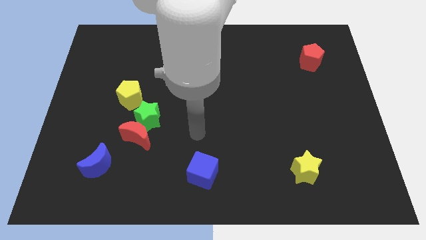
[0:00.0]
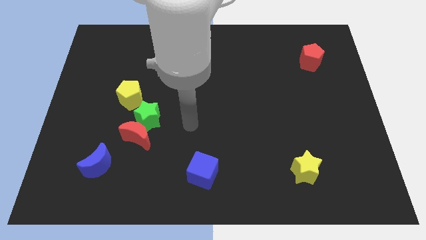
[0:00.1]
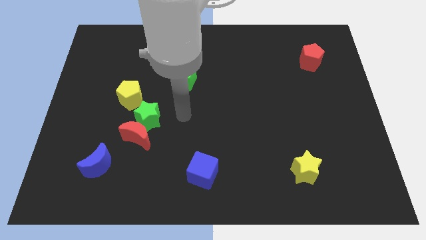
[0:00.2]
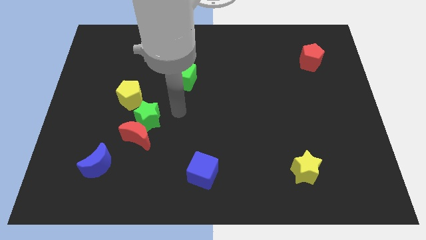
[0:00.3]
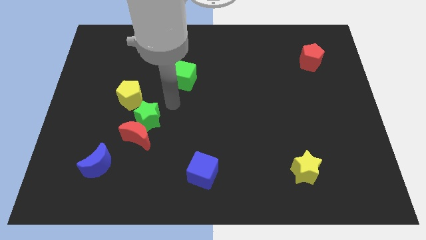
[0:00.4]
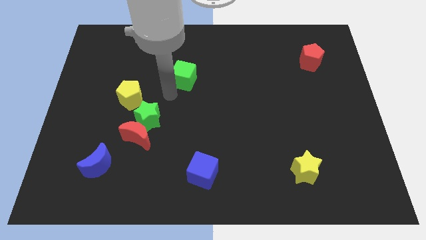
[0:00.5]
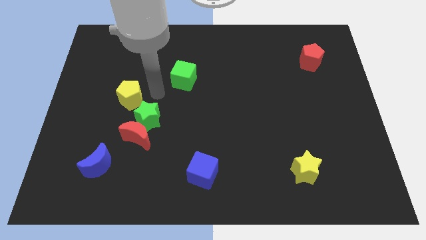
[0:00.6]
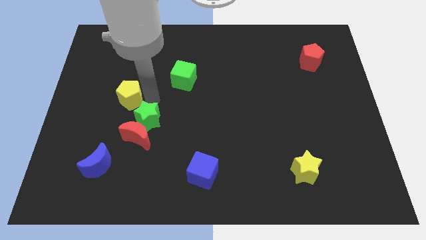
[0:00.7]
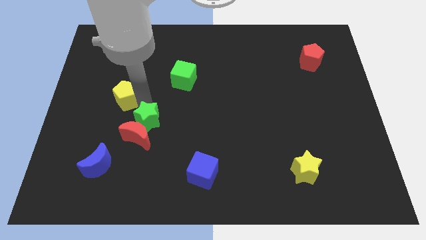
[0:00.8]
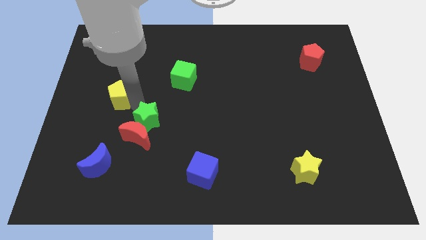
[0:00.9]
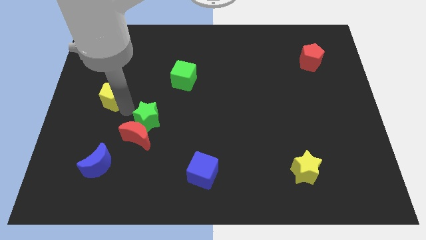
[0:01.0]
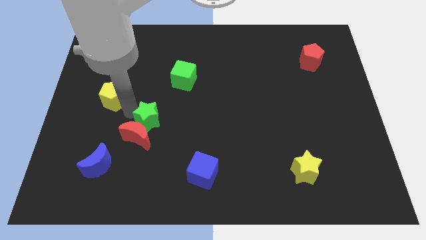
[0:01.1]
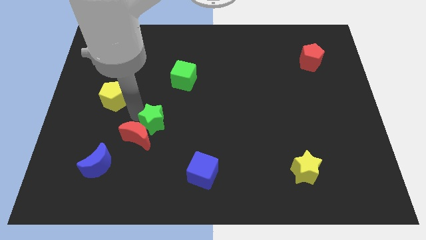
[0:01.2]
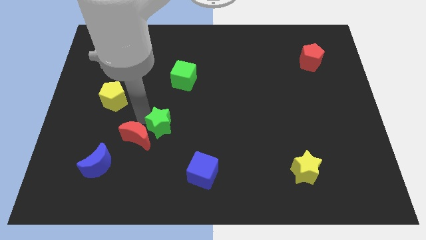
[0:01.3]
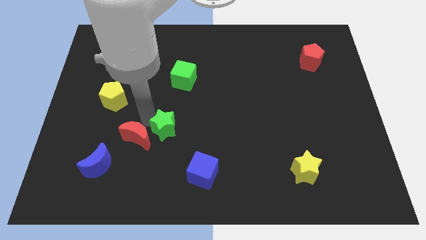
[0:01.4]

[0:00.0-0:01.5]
move the green star away from the red moon and yellow pentagon

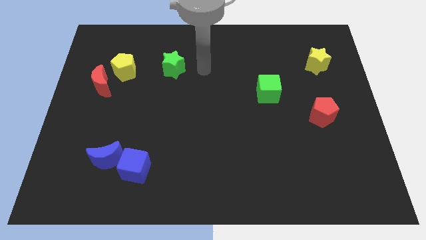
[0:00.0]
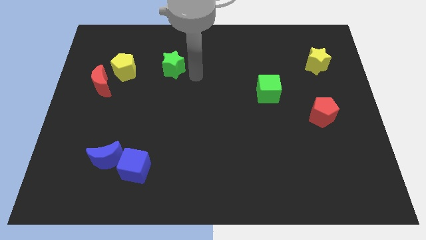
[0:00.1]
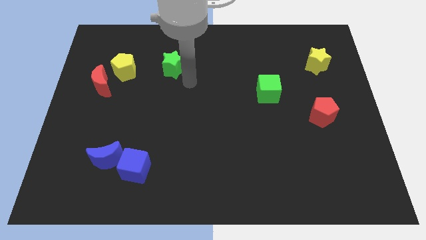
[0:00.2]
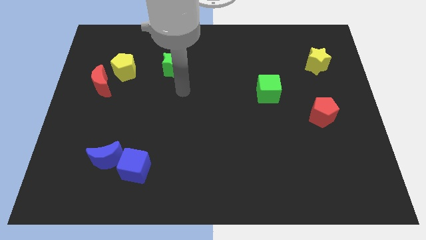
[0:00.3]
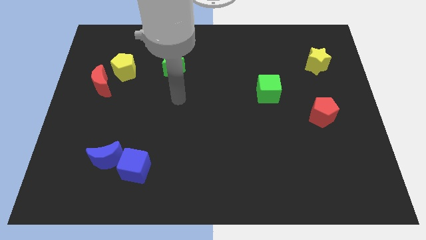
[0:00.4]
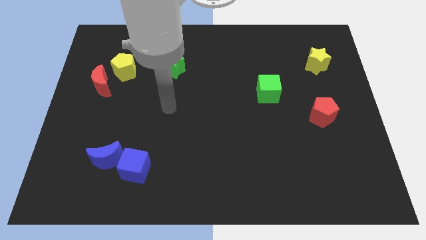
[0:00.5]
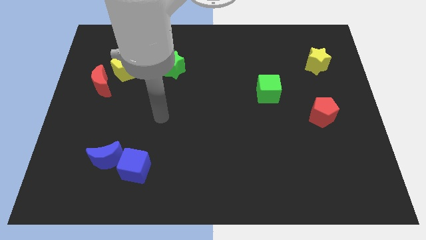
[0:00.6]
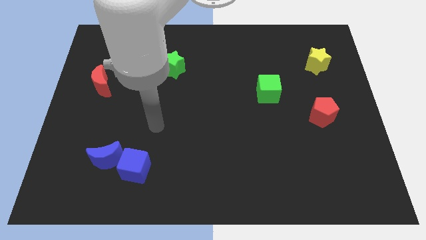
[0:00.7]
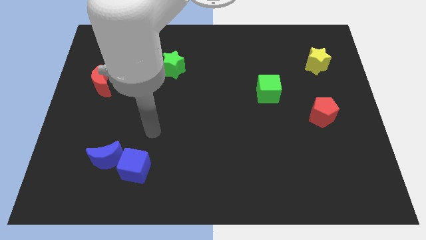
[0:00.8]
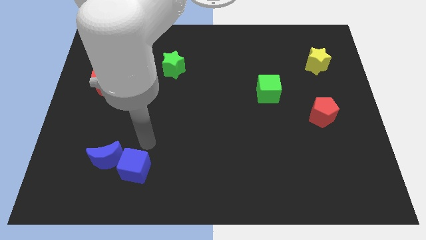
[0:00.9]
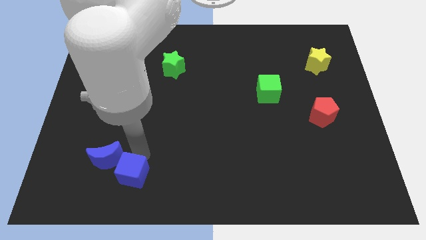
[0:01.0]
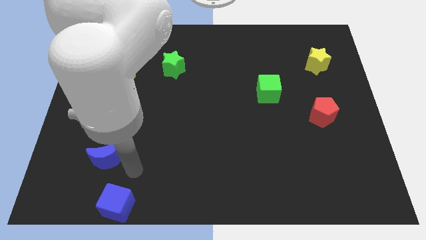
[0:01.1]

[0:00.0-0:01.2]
move the blue moon away from the blue cube

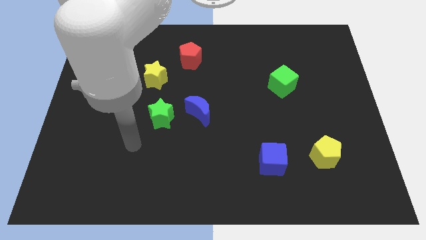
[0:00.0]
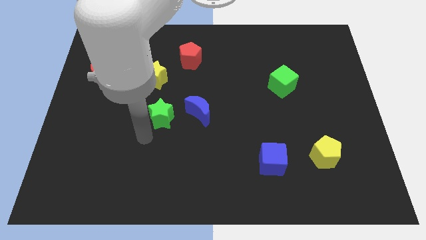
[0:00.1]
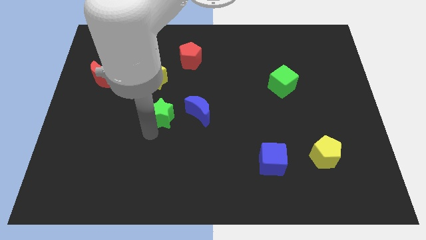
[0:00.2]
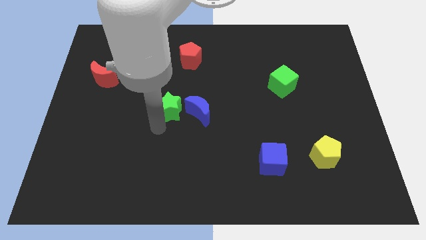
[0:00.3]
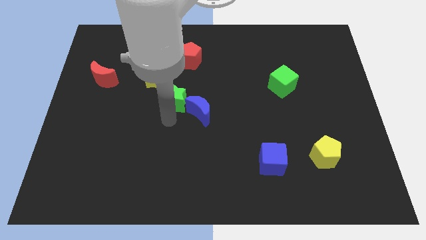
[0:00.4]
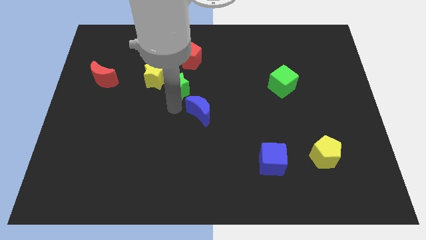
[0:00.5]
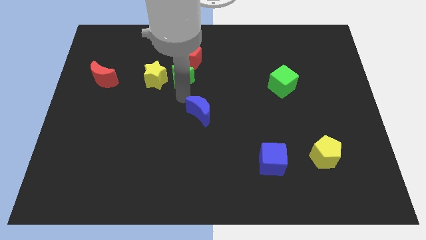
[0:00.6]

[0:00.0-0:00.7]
separate the blue moon from the green star

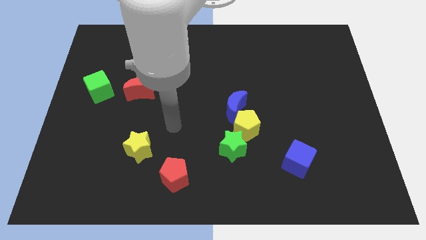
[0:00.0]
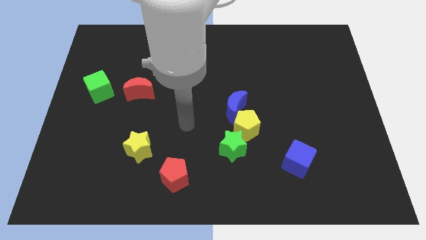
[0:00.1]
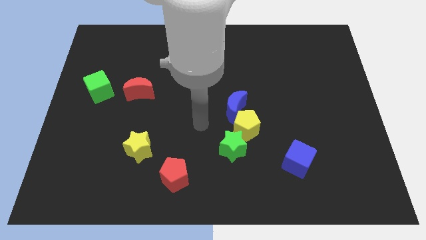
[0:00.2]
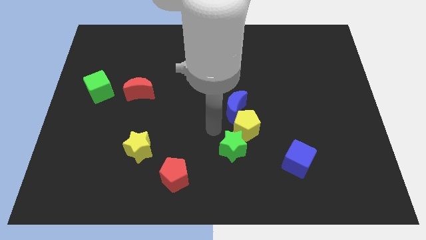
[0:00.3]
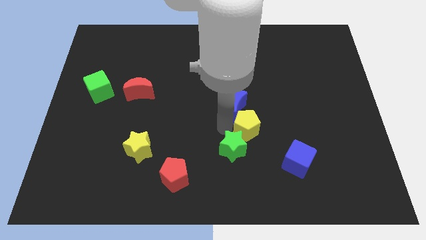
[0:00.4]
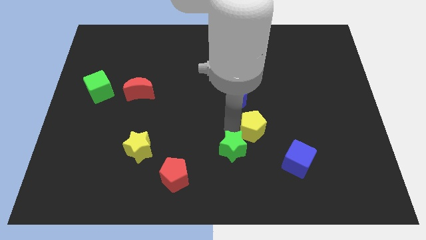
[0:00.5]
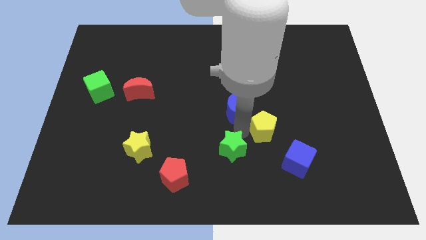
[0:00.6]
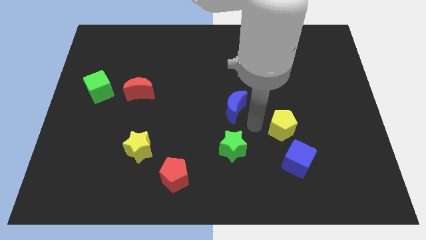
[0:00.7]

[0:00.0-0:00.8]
pull the blue moon apart from the yellow pentagon

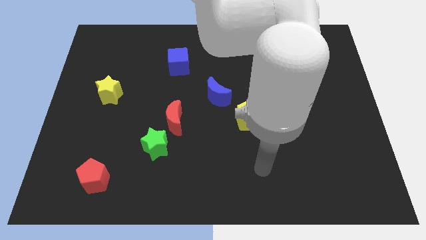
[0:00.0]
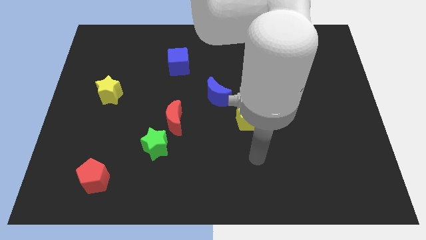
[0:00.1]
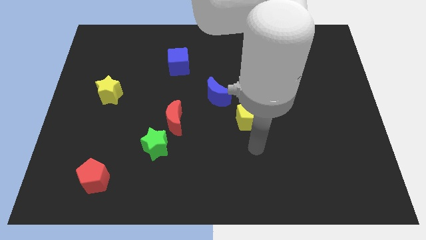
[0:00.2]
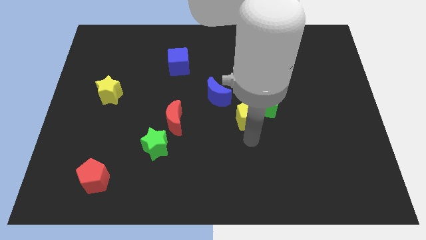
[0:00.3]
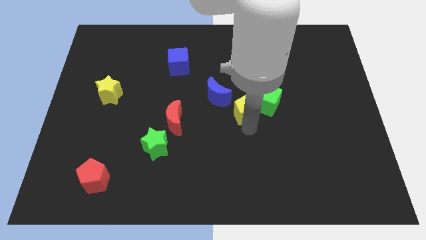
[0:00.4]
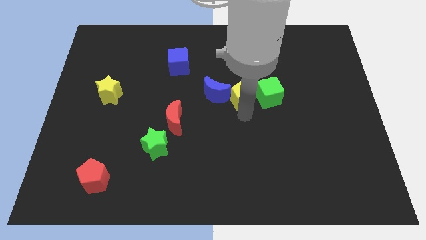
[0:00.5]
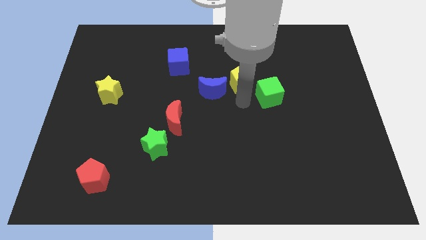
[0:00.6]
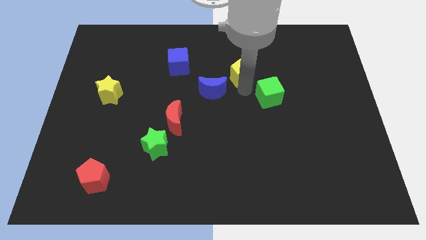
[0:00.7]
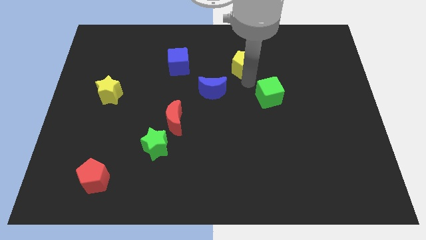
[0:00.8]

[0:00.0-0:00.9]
move the green cube away from the yellow pentagon

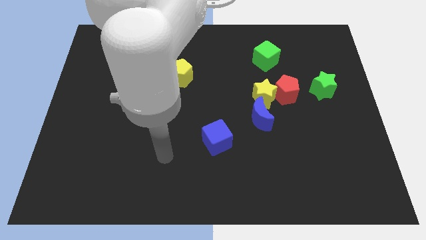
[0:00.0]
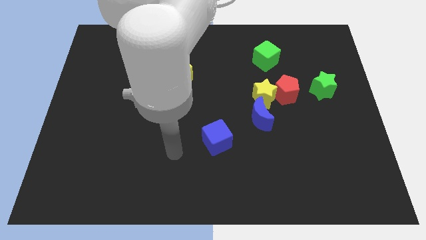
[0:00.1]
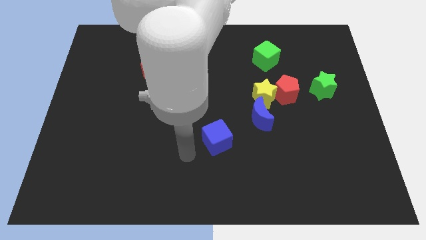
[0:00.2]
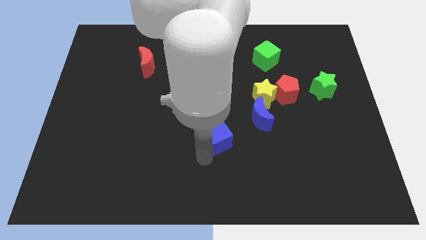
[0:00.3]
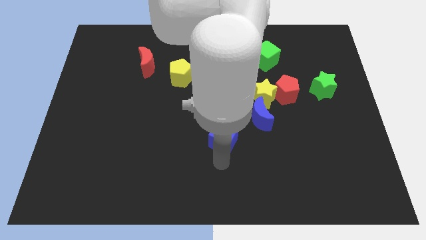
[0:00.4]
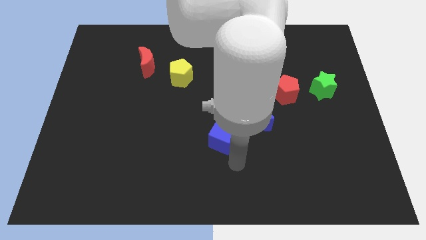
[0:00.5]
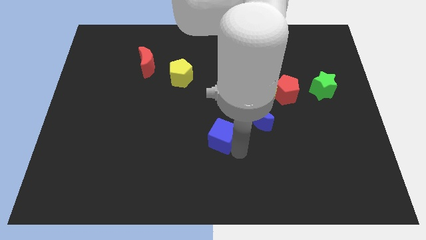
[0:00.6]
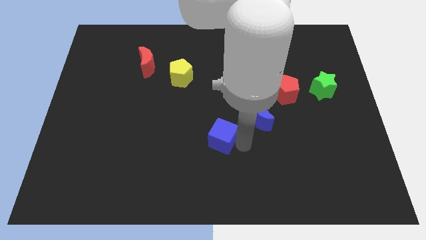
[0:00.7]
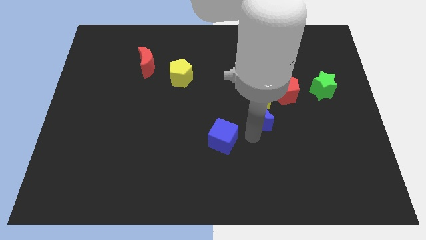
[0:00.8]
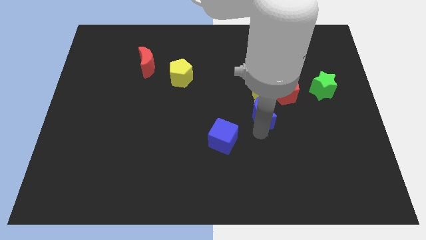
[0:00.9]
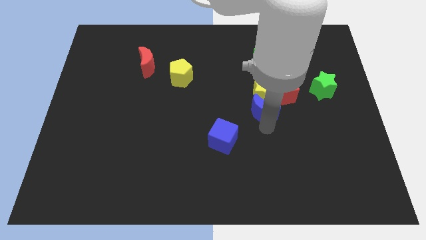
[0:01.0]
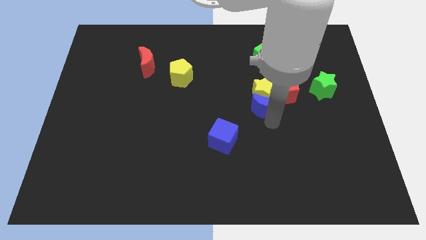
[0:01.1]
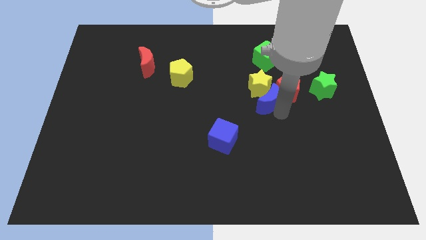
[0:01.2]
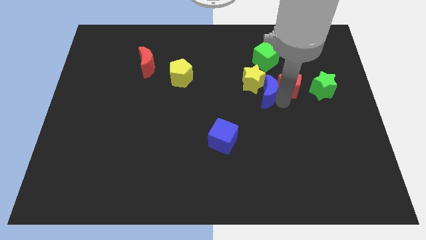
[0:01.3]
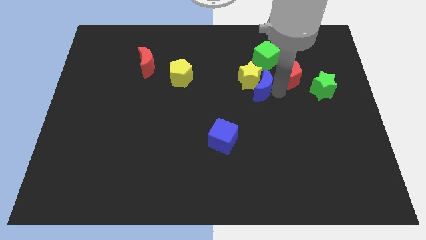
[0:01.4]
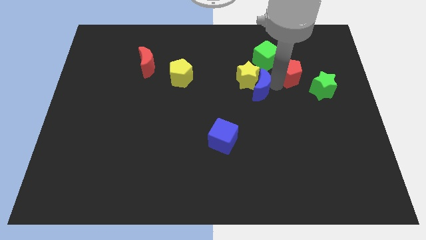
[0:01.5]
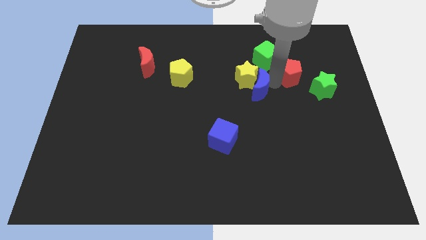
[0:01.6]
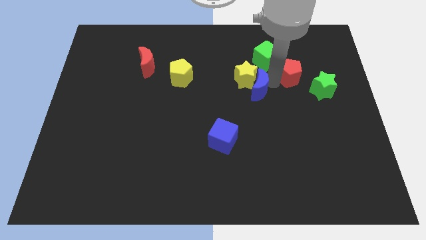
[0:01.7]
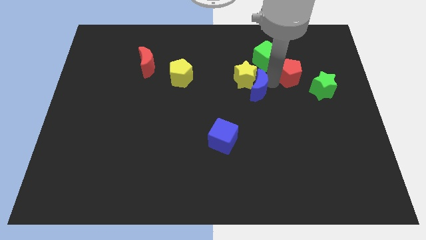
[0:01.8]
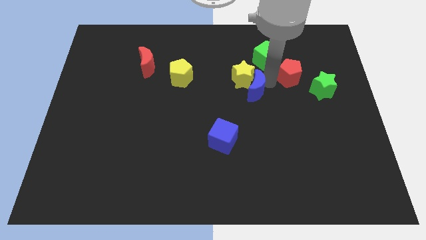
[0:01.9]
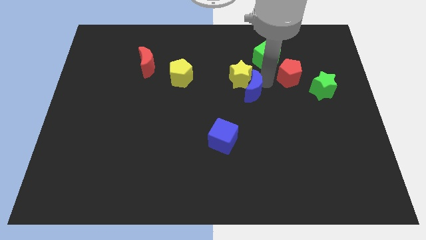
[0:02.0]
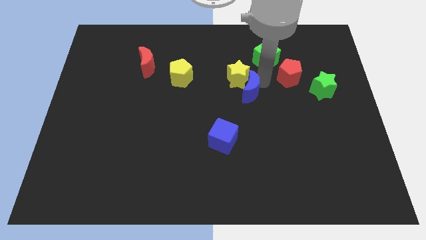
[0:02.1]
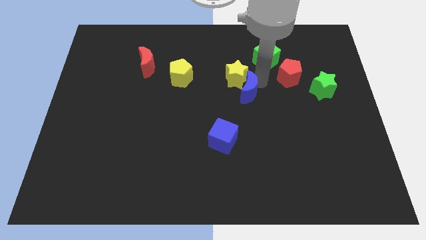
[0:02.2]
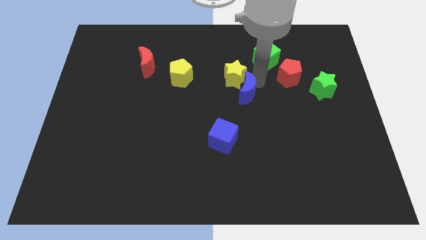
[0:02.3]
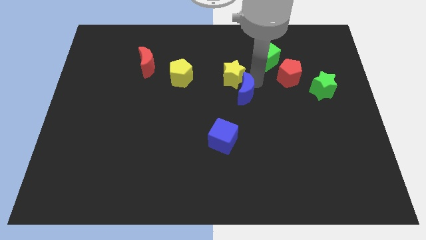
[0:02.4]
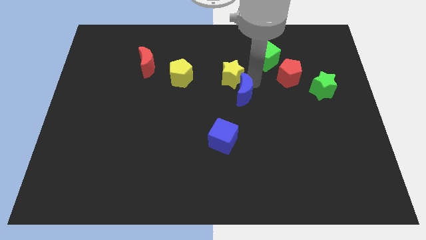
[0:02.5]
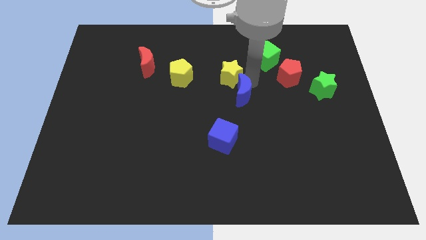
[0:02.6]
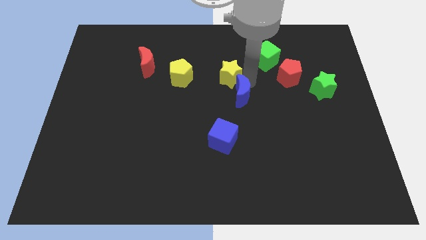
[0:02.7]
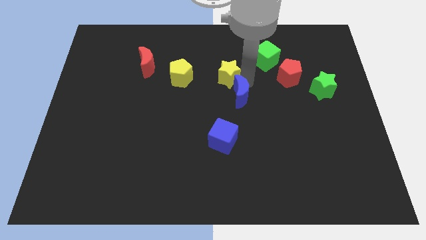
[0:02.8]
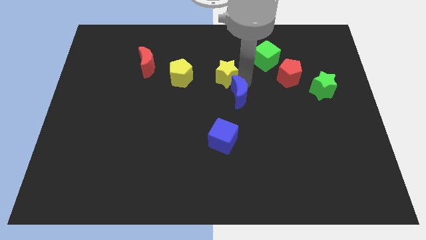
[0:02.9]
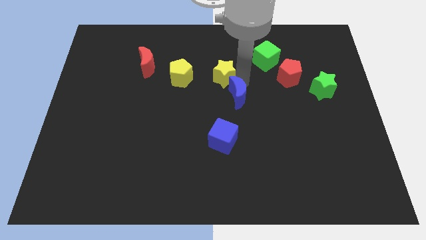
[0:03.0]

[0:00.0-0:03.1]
pull the yellow star apart from the red pentagon and blue moon

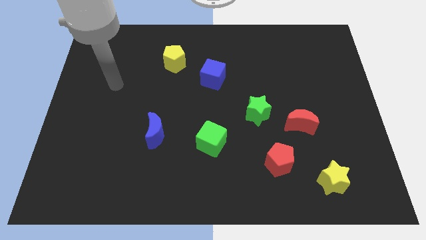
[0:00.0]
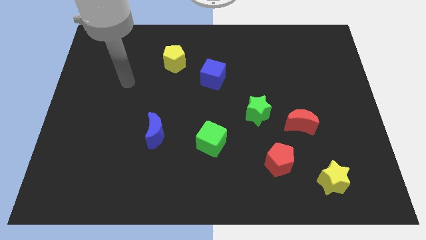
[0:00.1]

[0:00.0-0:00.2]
move the red moon away from the green star

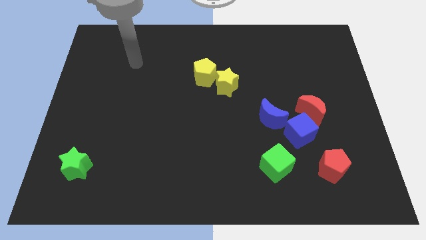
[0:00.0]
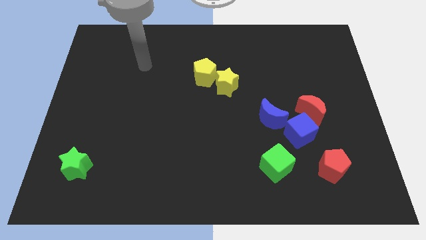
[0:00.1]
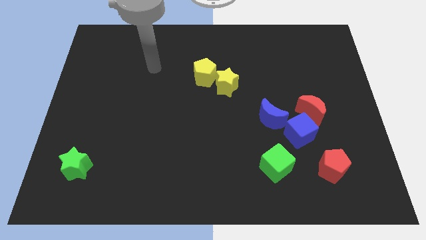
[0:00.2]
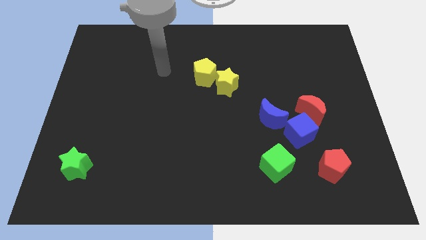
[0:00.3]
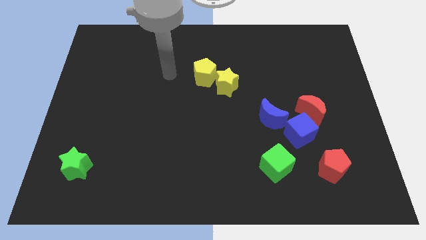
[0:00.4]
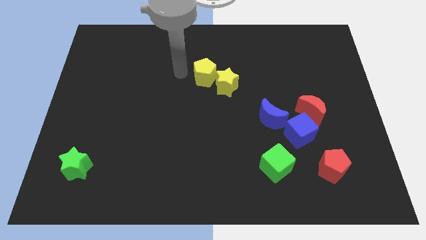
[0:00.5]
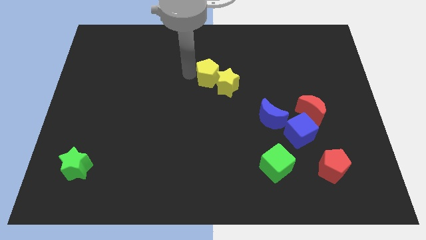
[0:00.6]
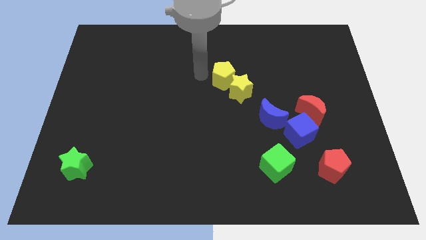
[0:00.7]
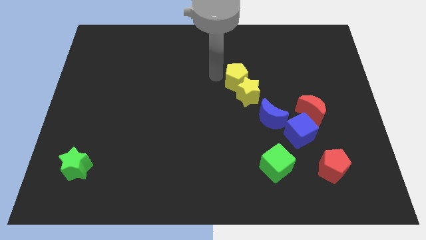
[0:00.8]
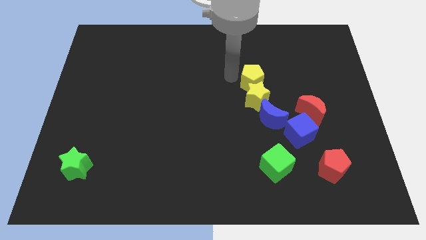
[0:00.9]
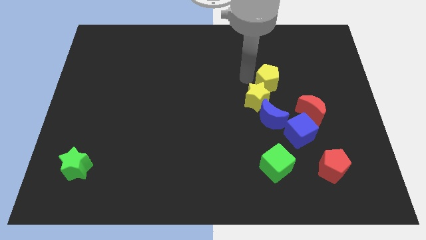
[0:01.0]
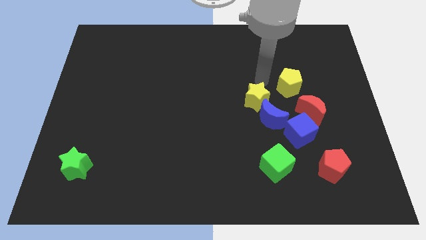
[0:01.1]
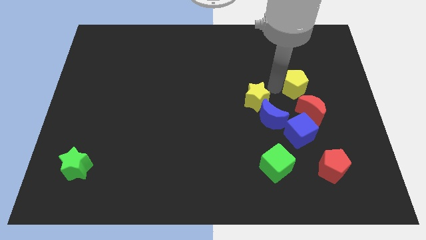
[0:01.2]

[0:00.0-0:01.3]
pull the yellow star apart from the yellow pentagon
